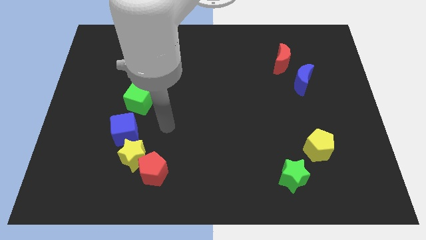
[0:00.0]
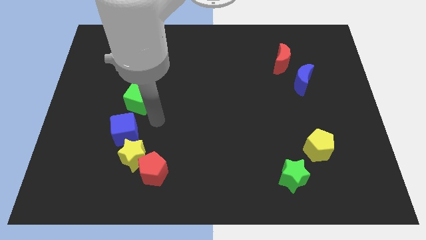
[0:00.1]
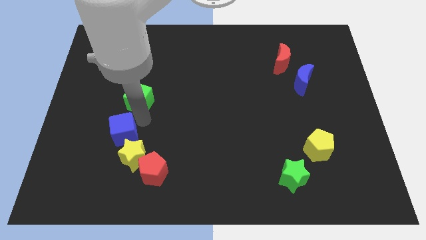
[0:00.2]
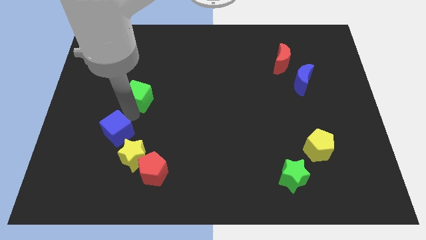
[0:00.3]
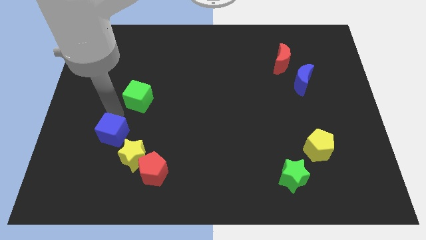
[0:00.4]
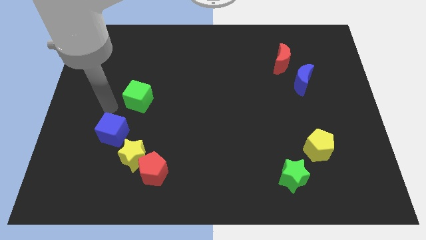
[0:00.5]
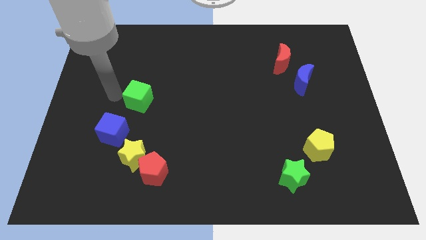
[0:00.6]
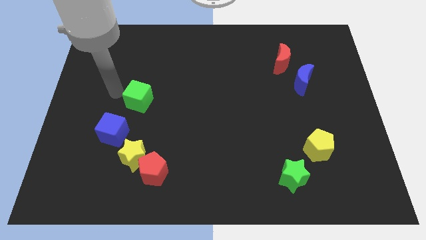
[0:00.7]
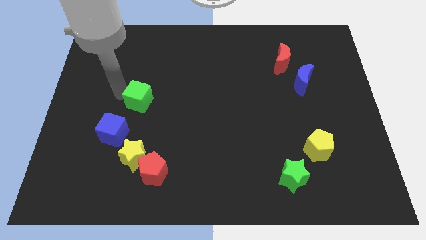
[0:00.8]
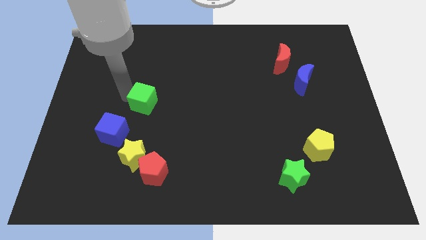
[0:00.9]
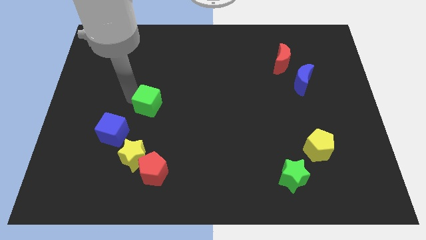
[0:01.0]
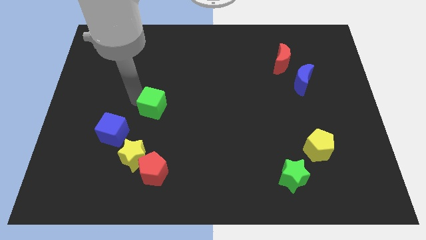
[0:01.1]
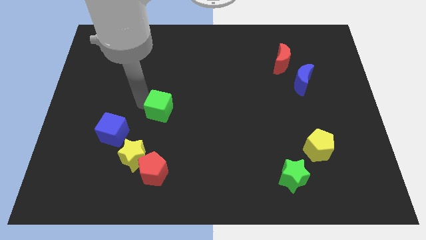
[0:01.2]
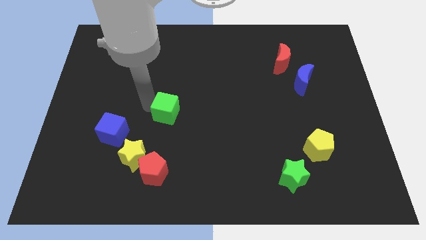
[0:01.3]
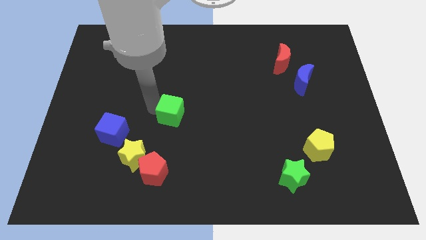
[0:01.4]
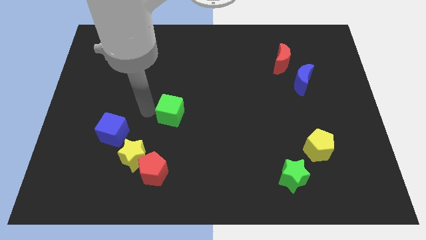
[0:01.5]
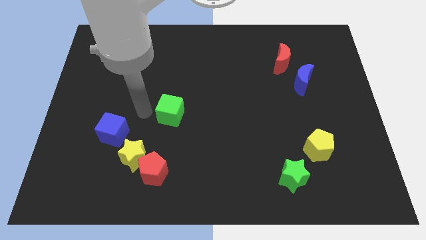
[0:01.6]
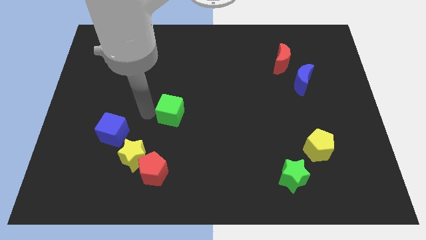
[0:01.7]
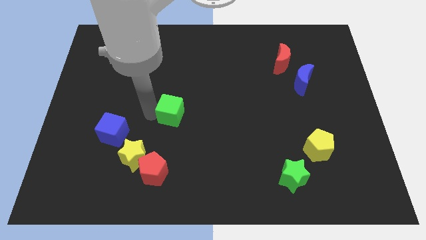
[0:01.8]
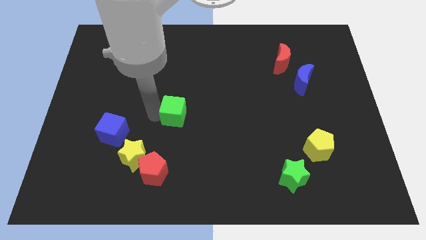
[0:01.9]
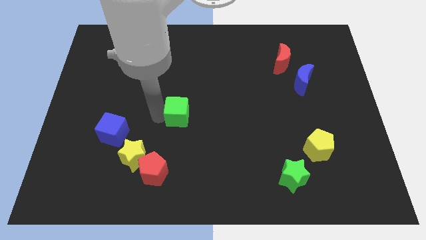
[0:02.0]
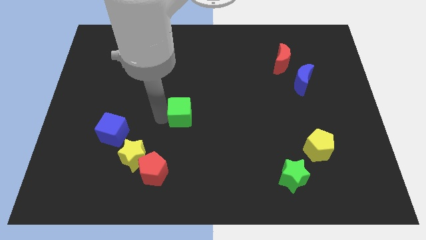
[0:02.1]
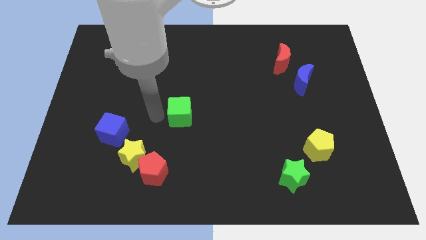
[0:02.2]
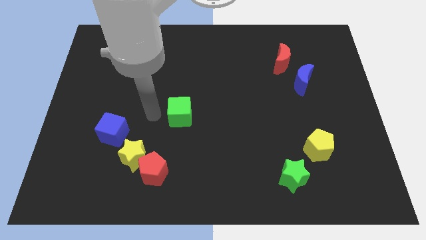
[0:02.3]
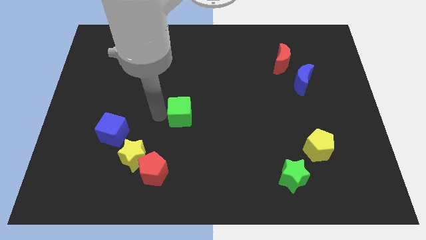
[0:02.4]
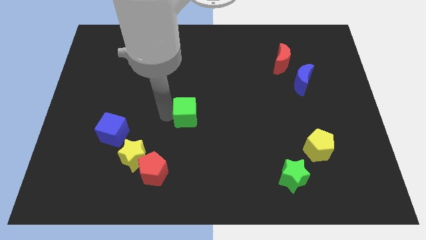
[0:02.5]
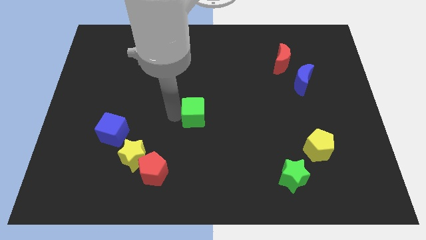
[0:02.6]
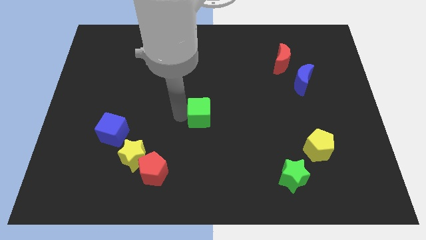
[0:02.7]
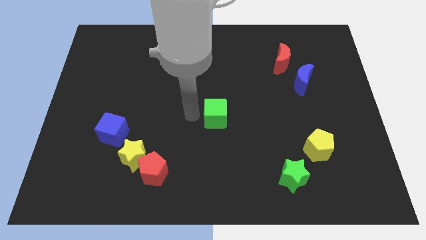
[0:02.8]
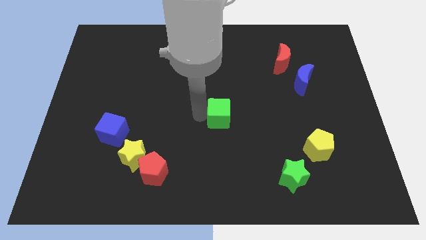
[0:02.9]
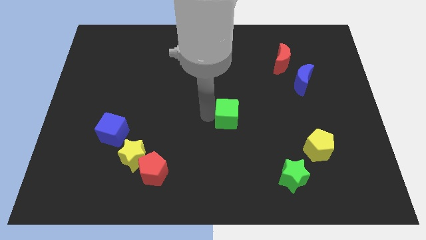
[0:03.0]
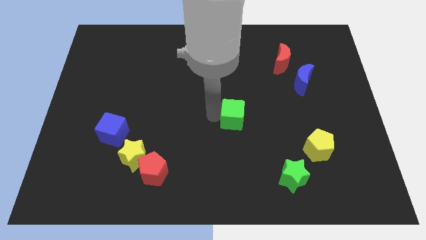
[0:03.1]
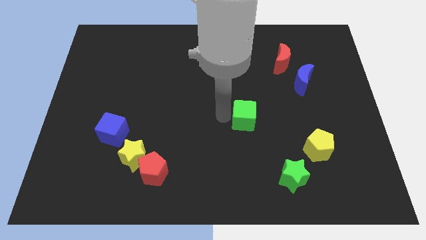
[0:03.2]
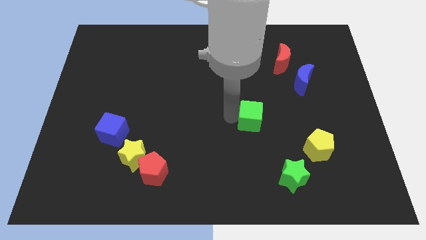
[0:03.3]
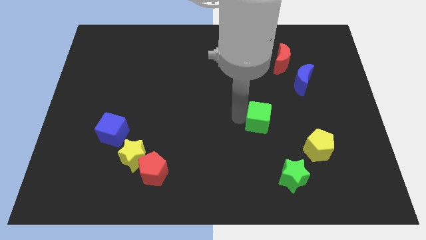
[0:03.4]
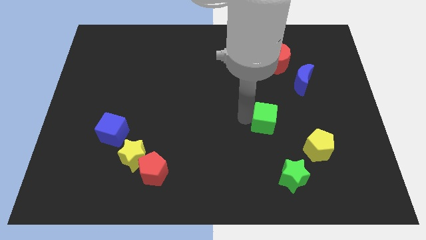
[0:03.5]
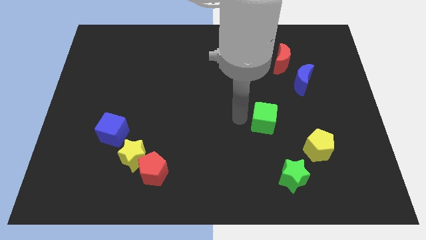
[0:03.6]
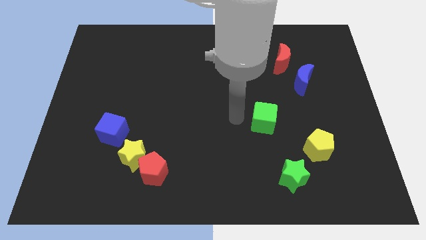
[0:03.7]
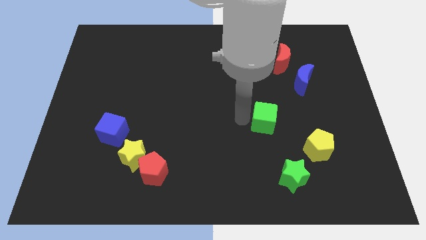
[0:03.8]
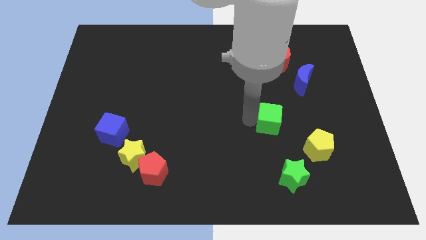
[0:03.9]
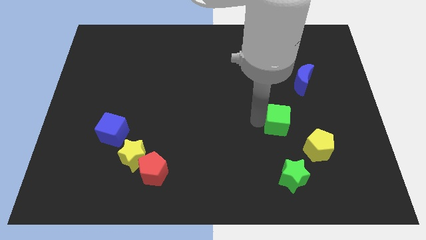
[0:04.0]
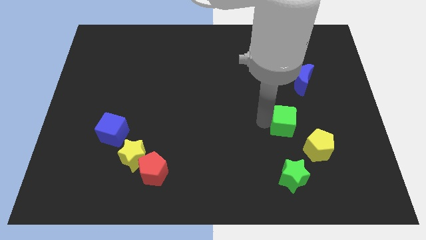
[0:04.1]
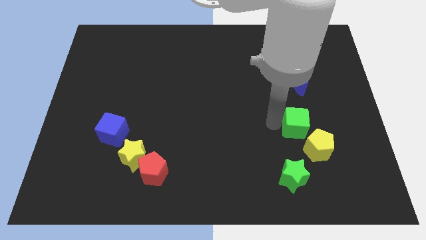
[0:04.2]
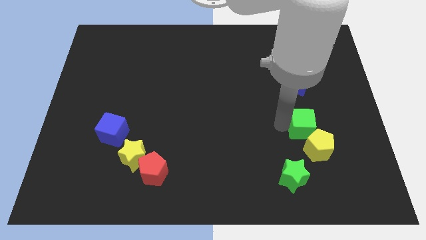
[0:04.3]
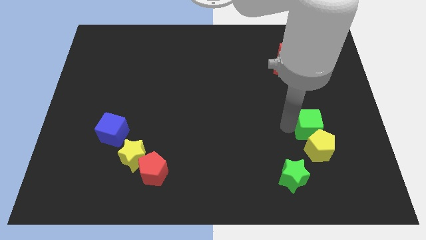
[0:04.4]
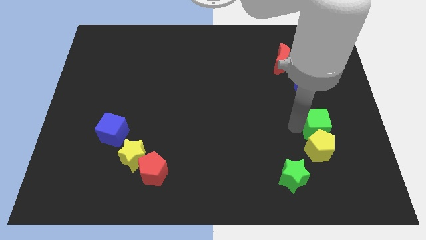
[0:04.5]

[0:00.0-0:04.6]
put the green cube to the top right side of the yellow pentagon

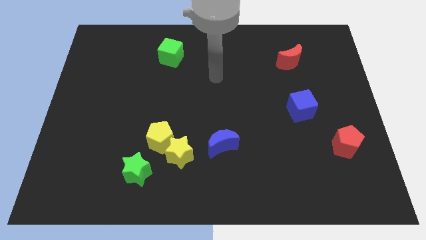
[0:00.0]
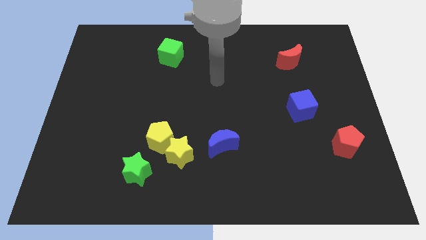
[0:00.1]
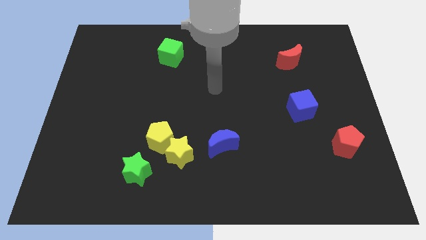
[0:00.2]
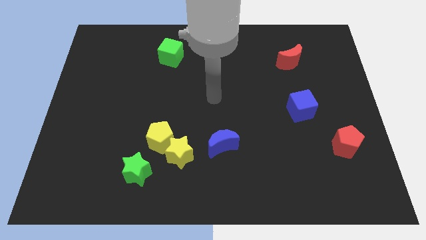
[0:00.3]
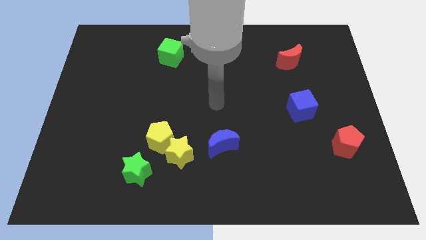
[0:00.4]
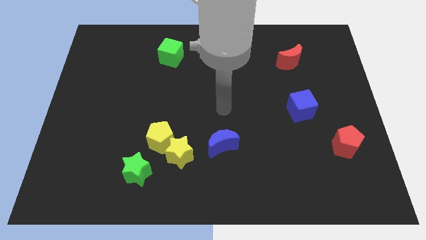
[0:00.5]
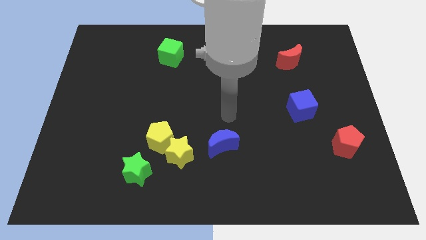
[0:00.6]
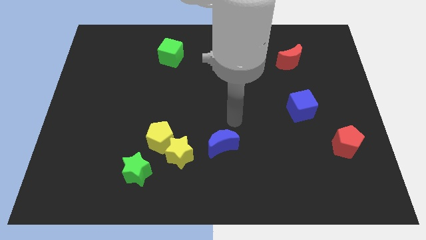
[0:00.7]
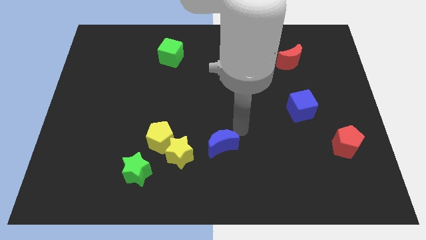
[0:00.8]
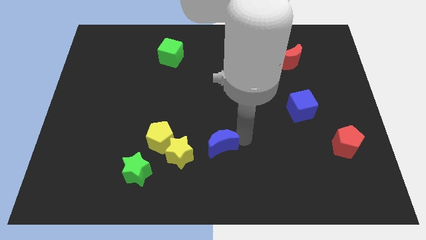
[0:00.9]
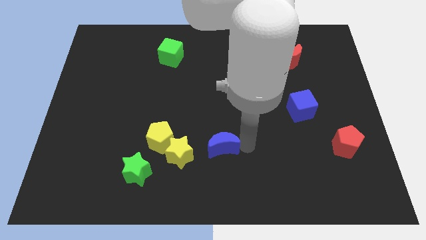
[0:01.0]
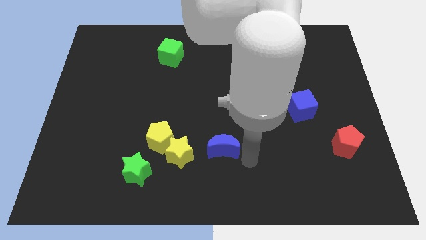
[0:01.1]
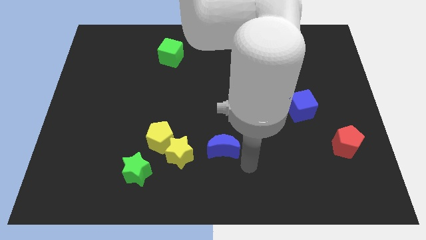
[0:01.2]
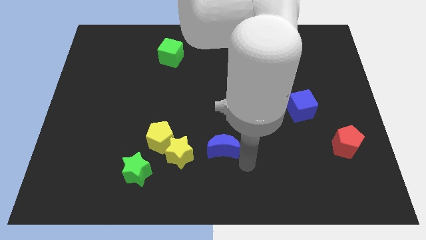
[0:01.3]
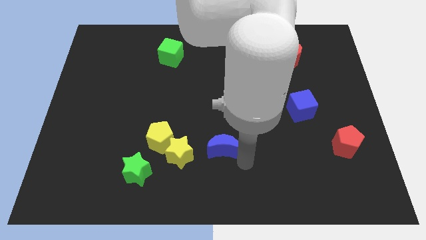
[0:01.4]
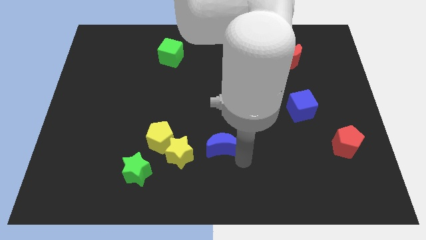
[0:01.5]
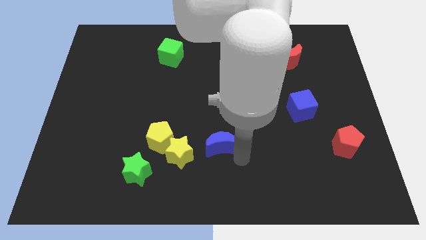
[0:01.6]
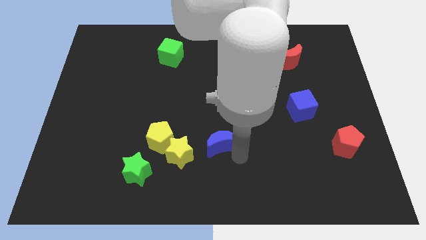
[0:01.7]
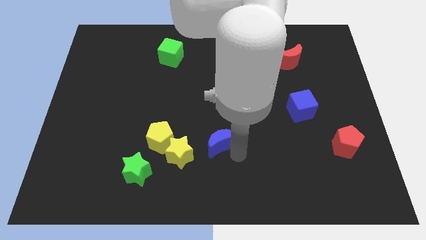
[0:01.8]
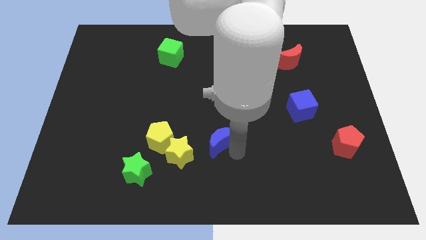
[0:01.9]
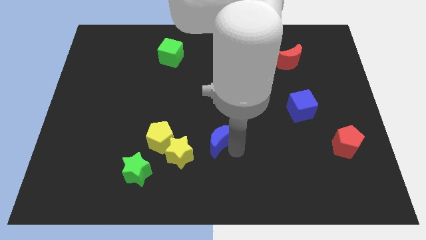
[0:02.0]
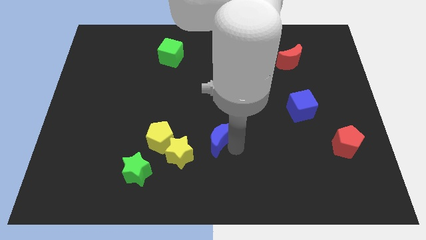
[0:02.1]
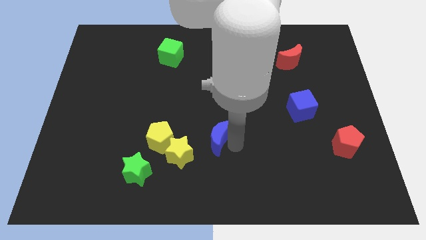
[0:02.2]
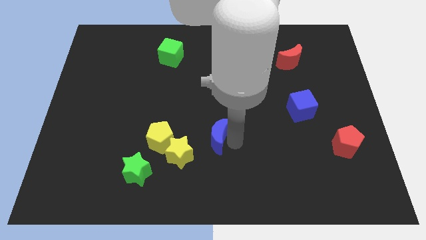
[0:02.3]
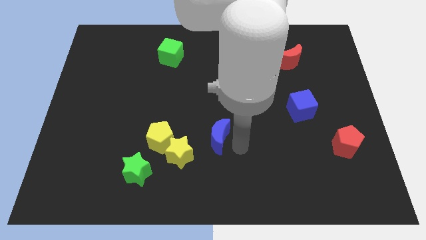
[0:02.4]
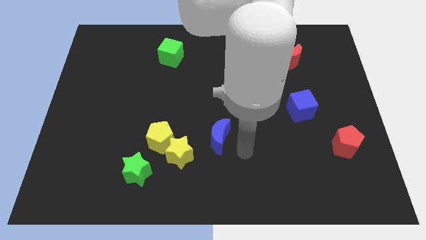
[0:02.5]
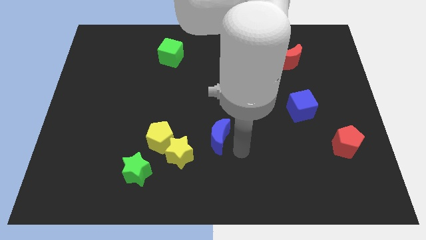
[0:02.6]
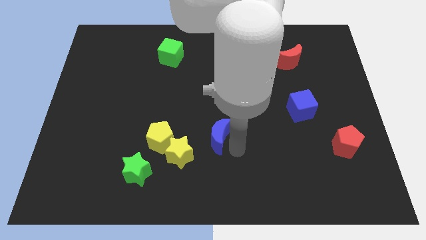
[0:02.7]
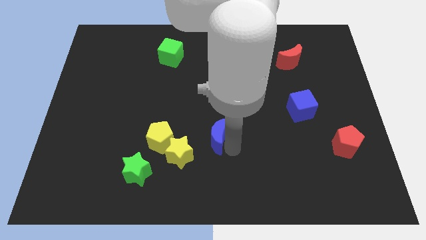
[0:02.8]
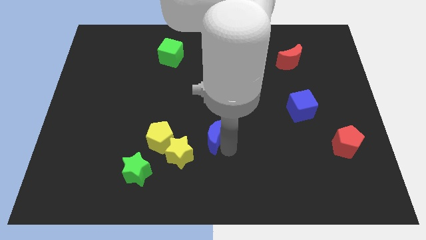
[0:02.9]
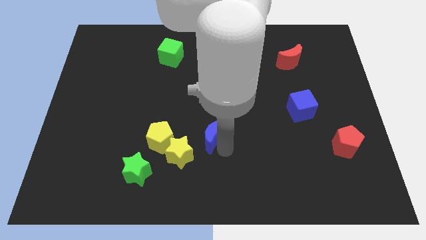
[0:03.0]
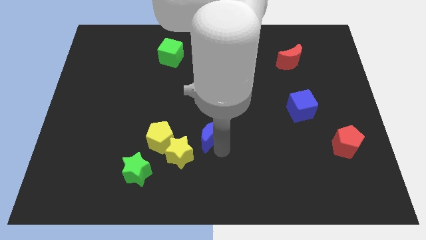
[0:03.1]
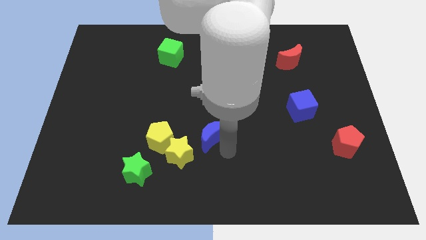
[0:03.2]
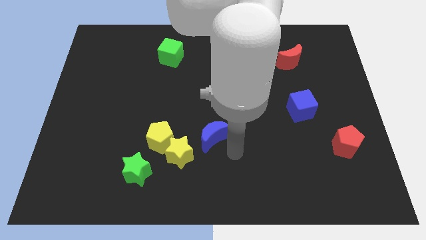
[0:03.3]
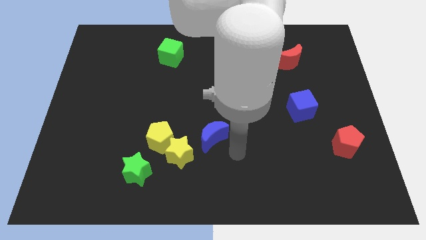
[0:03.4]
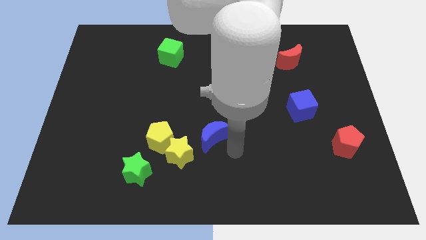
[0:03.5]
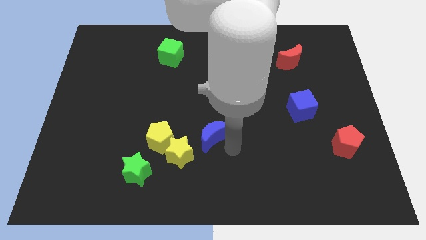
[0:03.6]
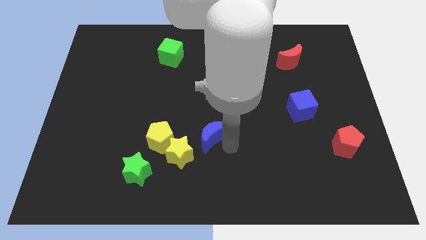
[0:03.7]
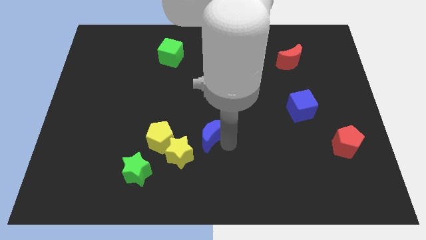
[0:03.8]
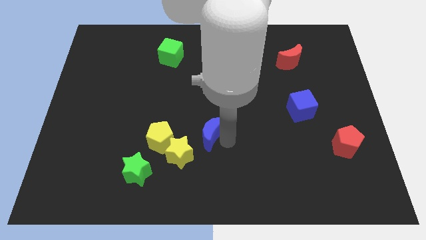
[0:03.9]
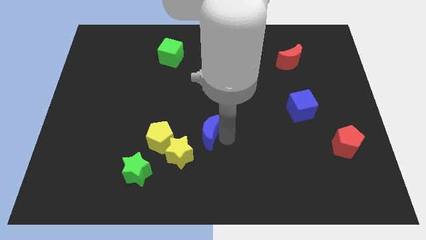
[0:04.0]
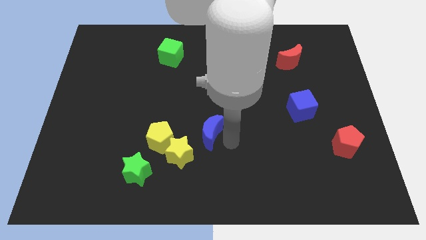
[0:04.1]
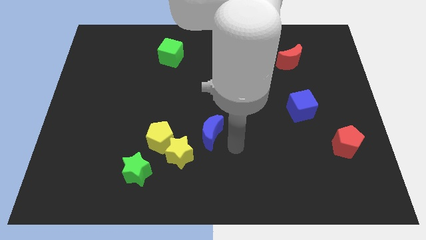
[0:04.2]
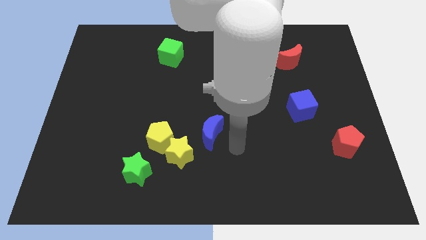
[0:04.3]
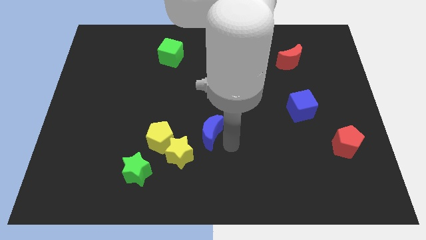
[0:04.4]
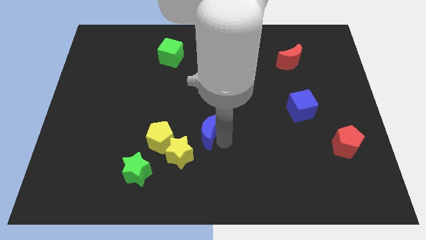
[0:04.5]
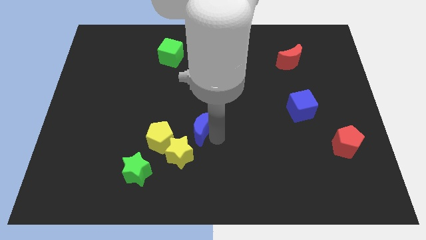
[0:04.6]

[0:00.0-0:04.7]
push the blue moon to the top right side of the yellow pentagon
